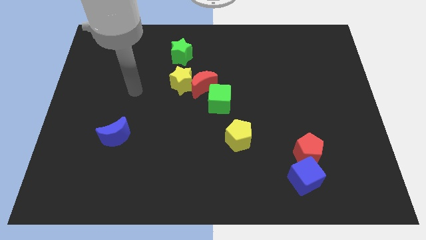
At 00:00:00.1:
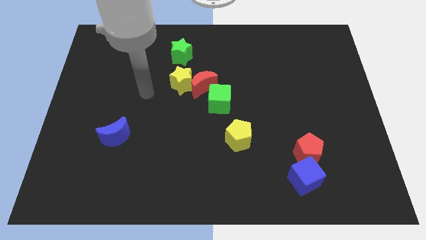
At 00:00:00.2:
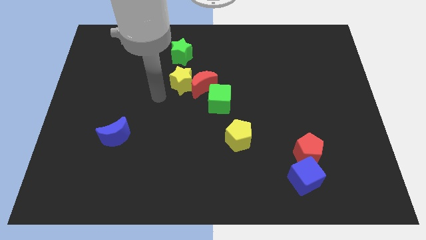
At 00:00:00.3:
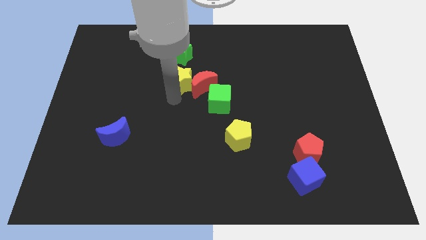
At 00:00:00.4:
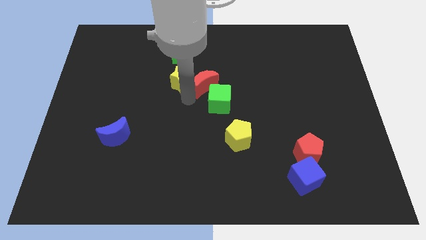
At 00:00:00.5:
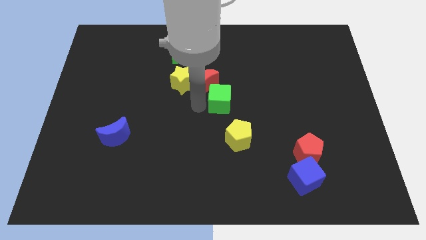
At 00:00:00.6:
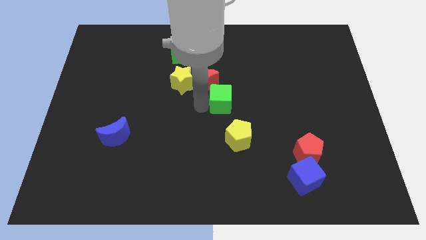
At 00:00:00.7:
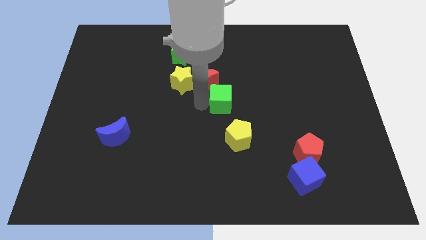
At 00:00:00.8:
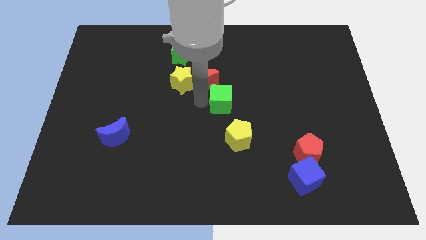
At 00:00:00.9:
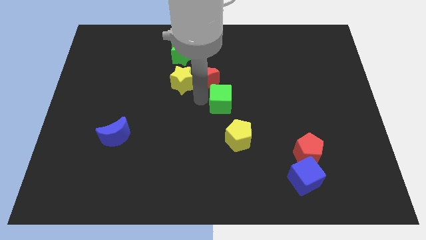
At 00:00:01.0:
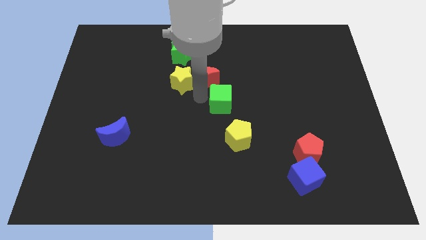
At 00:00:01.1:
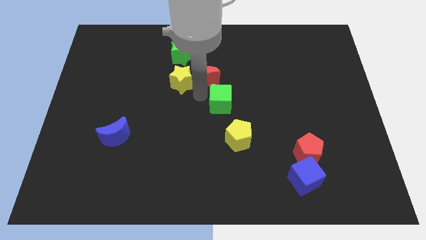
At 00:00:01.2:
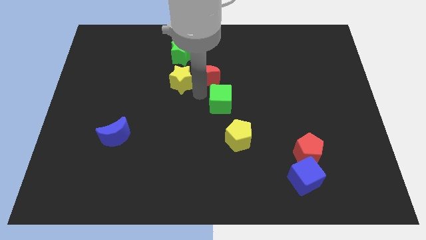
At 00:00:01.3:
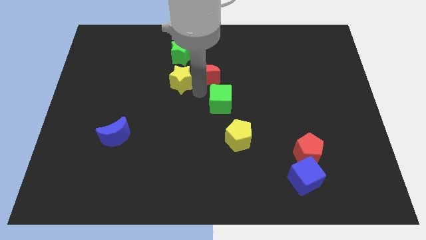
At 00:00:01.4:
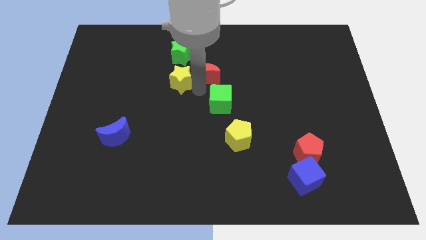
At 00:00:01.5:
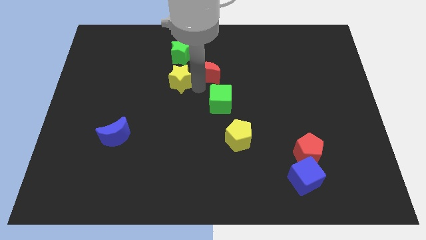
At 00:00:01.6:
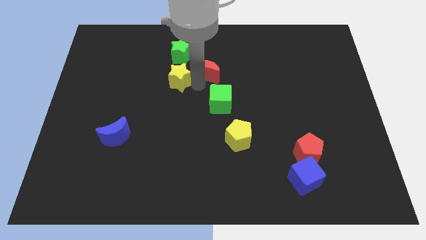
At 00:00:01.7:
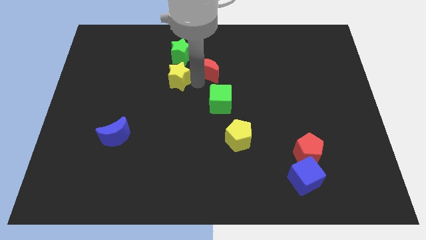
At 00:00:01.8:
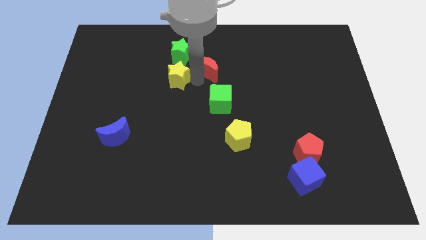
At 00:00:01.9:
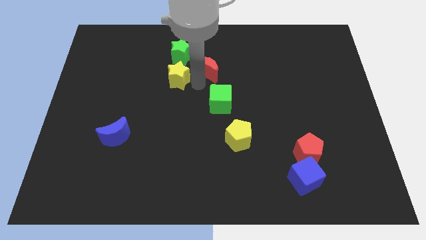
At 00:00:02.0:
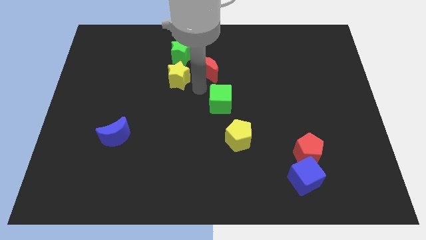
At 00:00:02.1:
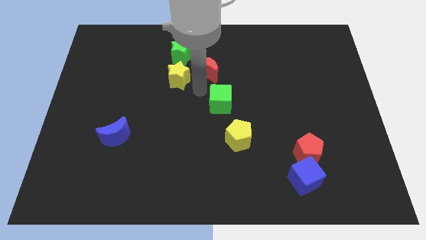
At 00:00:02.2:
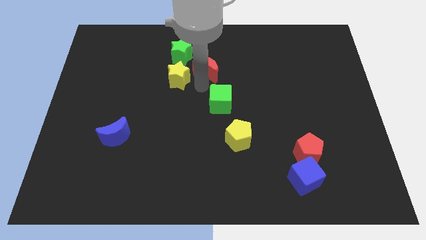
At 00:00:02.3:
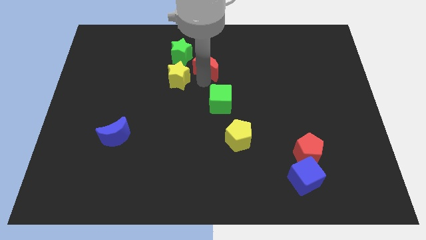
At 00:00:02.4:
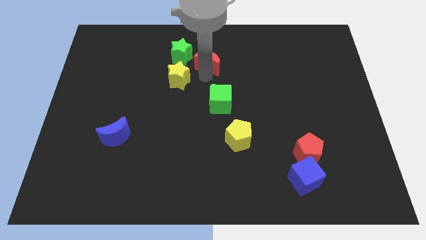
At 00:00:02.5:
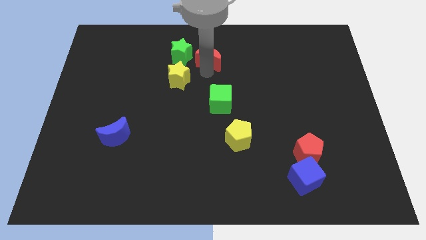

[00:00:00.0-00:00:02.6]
pull the red moon apart from the yellow star and green cube

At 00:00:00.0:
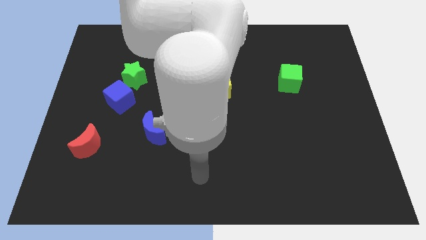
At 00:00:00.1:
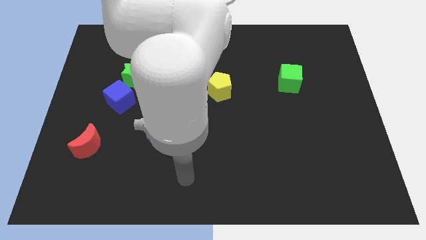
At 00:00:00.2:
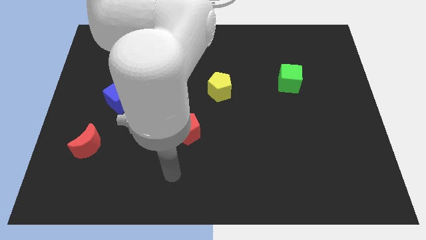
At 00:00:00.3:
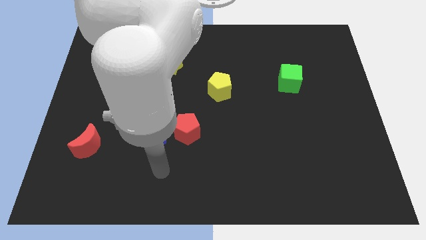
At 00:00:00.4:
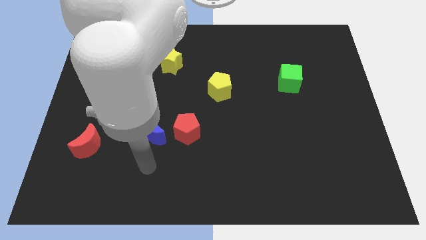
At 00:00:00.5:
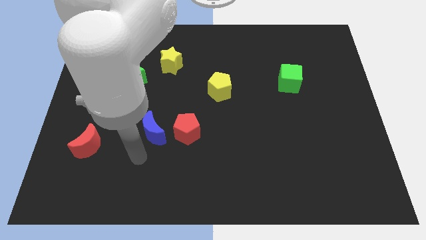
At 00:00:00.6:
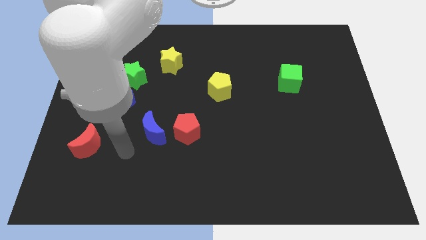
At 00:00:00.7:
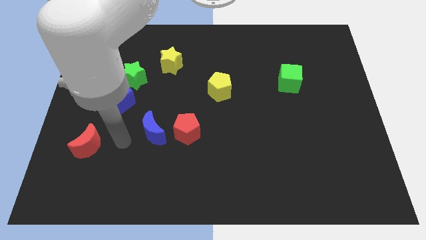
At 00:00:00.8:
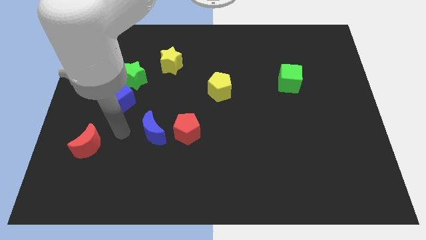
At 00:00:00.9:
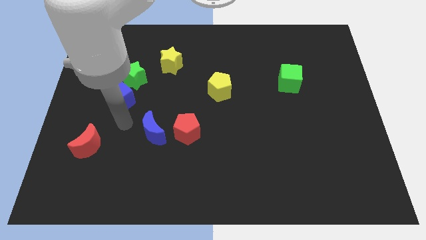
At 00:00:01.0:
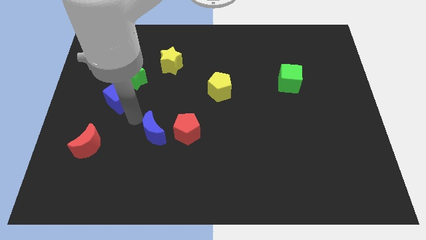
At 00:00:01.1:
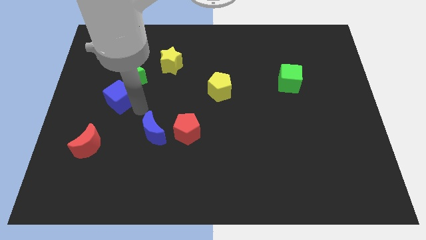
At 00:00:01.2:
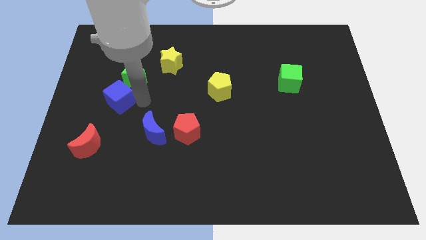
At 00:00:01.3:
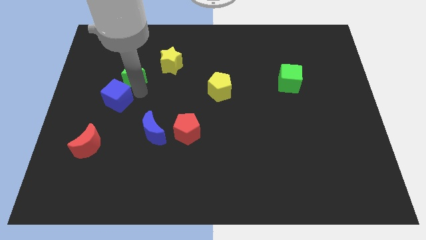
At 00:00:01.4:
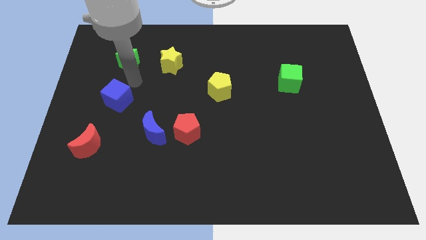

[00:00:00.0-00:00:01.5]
move the blue cube away from the green star

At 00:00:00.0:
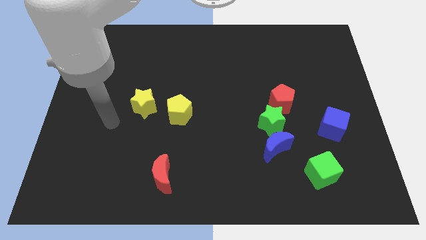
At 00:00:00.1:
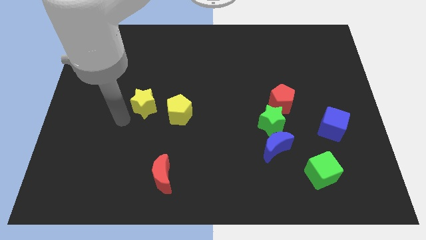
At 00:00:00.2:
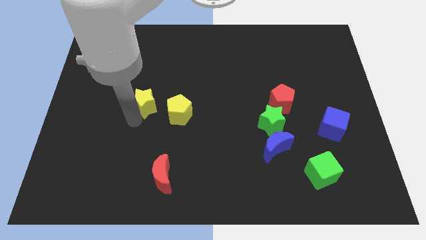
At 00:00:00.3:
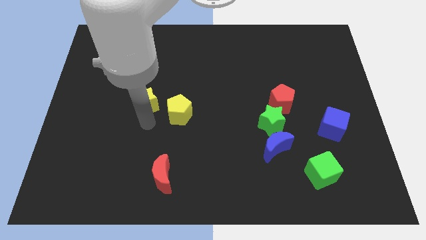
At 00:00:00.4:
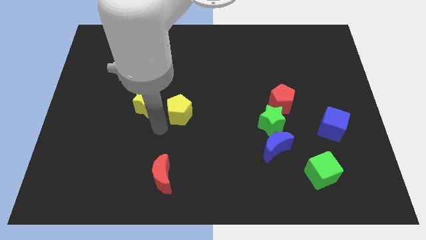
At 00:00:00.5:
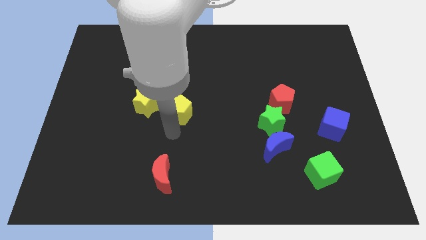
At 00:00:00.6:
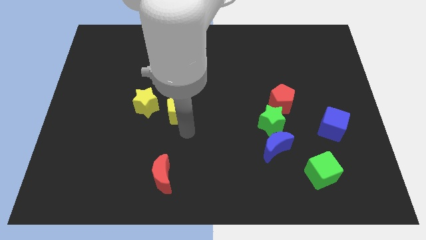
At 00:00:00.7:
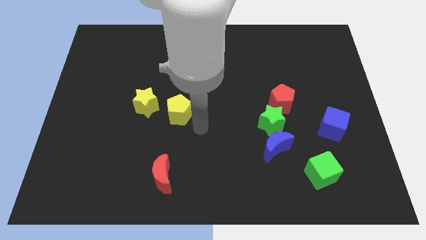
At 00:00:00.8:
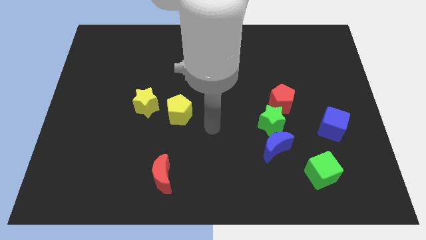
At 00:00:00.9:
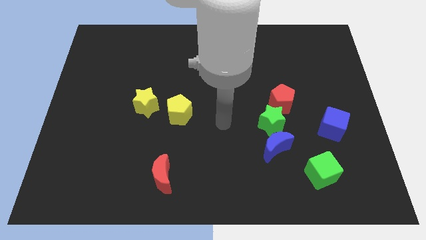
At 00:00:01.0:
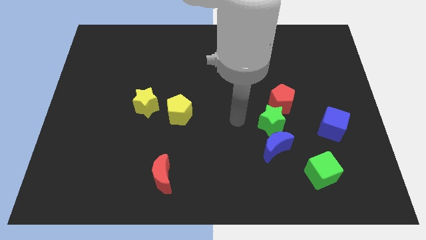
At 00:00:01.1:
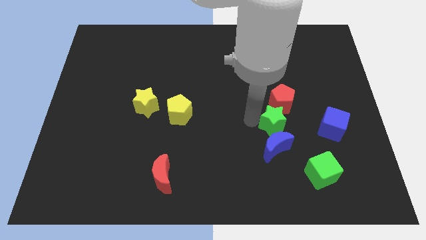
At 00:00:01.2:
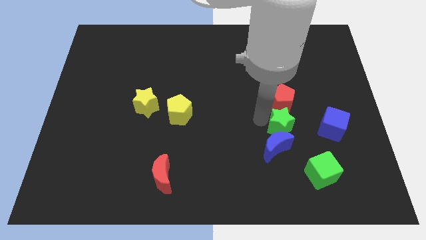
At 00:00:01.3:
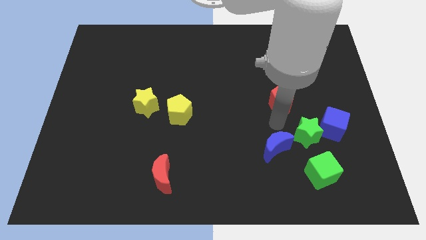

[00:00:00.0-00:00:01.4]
move the red pentagon away from the green star

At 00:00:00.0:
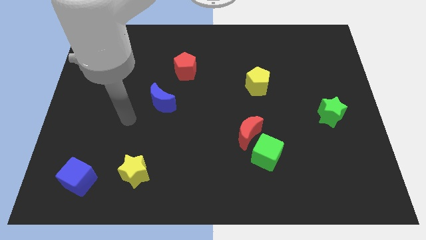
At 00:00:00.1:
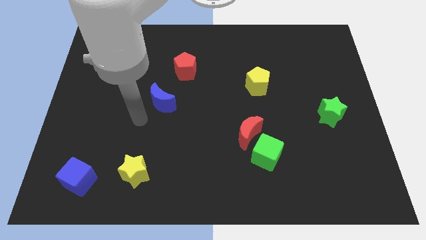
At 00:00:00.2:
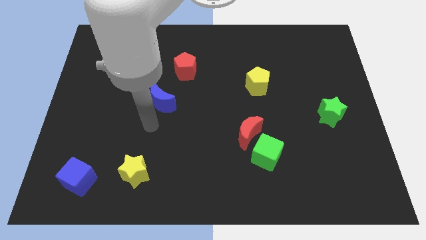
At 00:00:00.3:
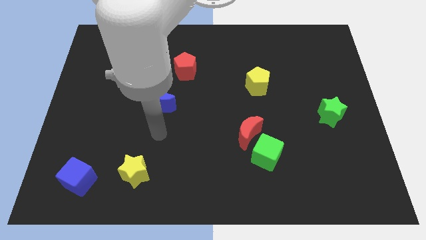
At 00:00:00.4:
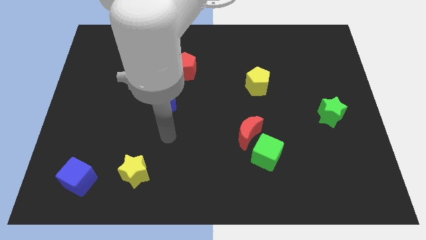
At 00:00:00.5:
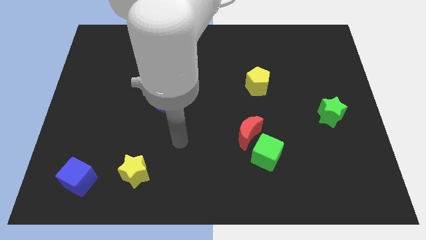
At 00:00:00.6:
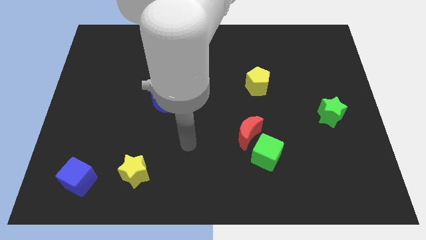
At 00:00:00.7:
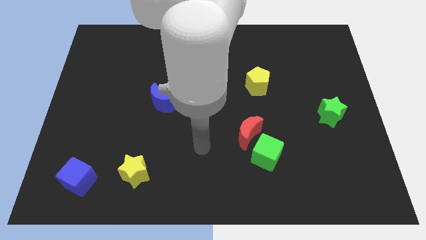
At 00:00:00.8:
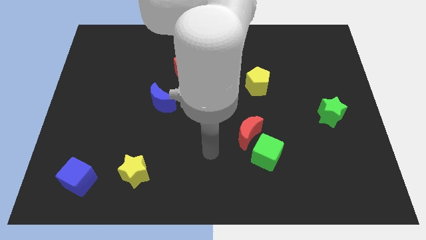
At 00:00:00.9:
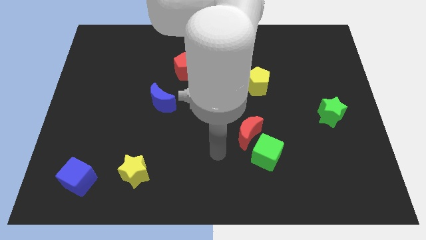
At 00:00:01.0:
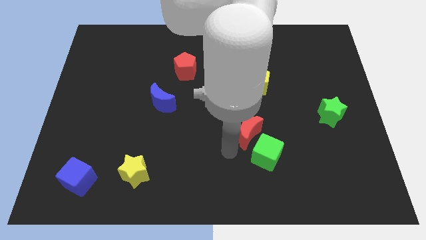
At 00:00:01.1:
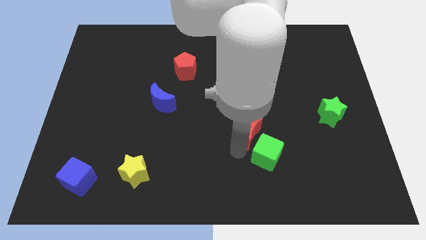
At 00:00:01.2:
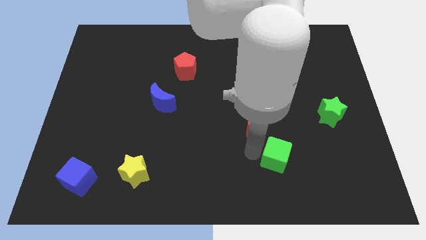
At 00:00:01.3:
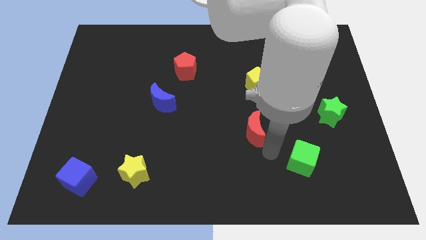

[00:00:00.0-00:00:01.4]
move the red moon away from the green cube

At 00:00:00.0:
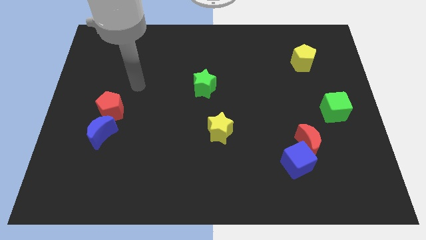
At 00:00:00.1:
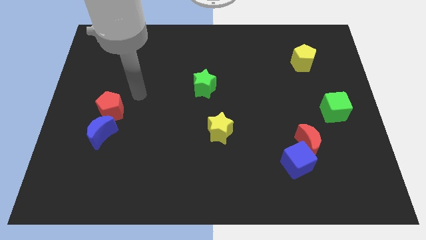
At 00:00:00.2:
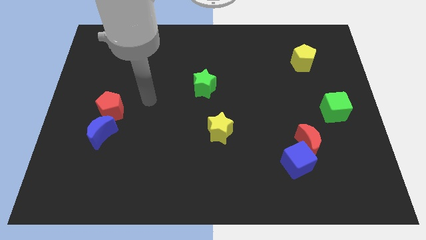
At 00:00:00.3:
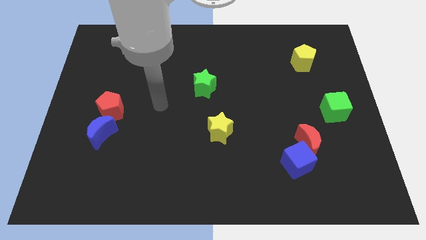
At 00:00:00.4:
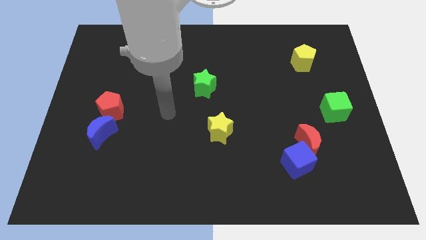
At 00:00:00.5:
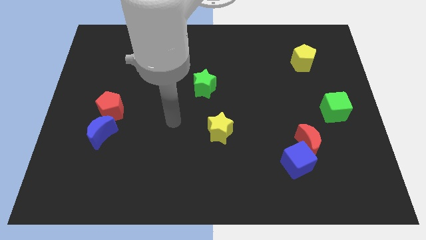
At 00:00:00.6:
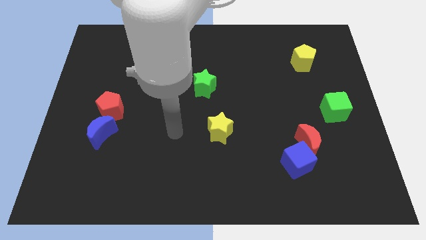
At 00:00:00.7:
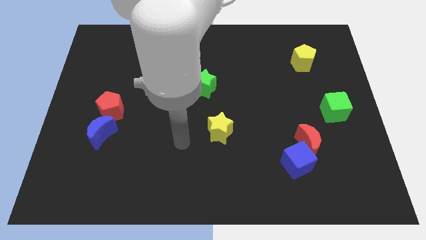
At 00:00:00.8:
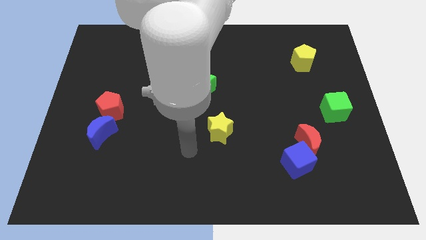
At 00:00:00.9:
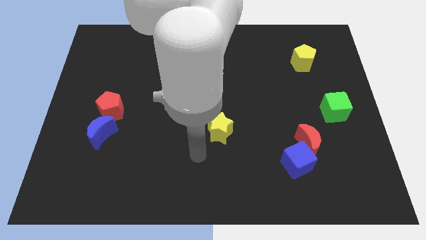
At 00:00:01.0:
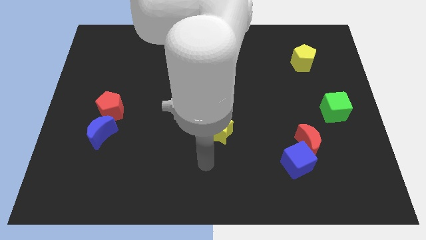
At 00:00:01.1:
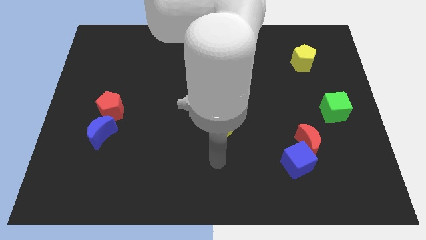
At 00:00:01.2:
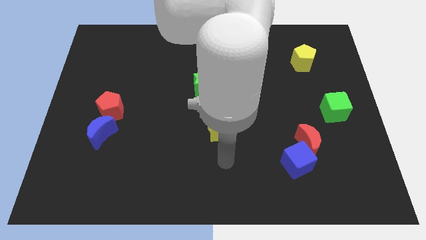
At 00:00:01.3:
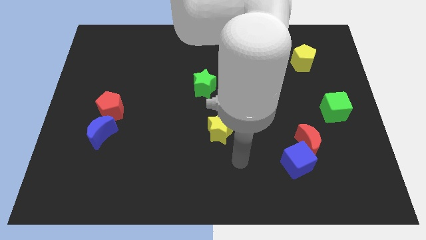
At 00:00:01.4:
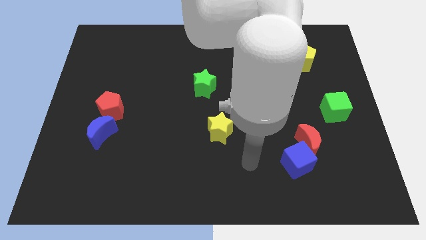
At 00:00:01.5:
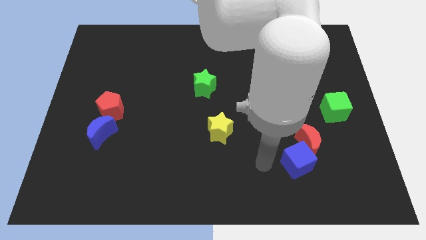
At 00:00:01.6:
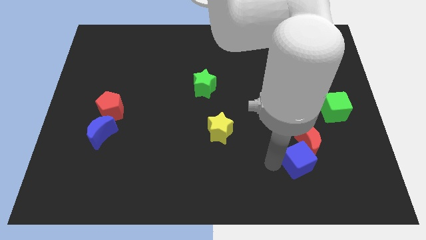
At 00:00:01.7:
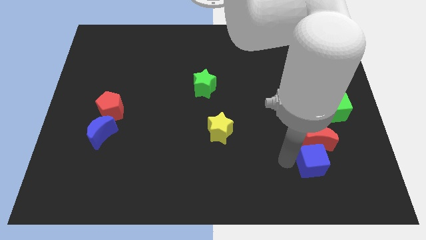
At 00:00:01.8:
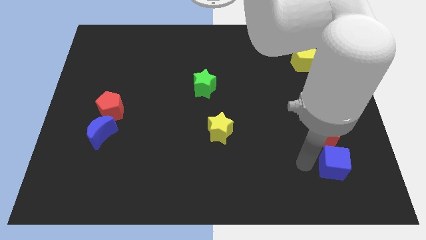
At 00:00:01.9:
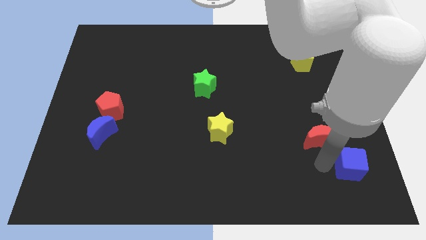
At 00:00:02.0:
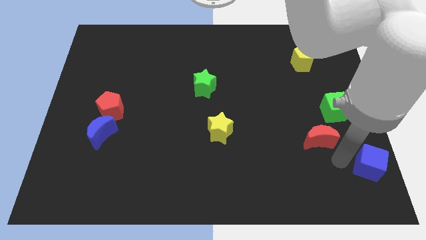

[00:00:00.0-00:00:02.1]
separate the red moon from the blue cube

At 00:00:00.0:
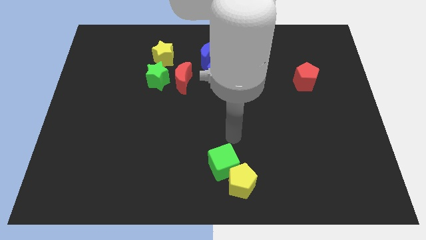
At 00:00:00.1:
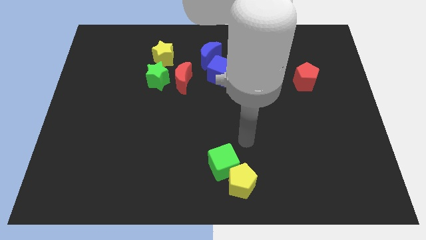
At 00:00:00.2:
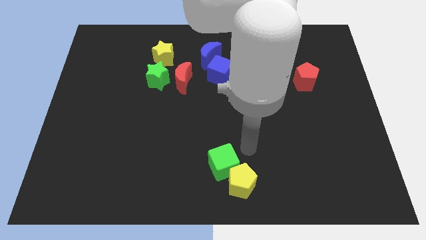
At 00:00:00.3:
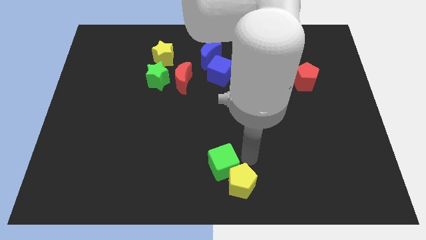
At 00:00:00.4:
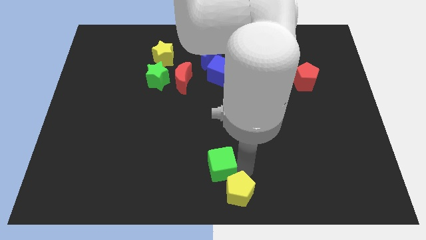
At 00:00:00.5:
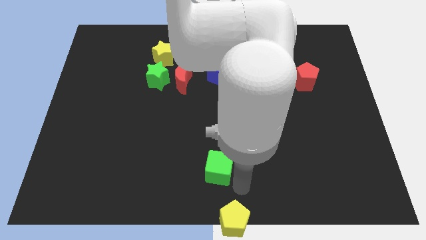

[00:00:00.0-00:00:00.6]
pull the green cube apart from the yellow pentagon
